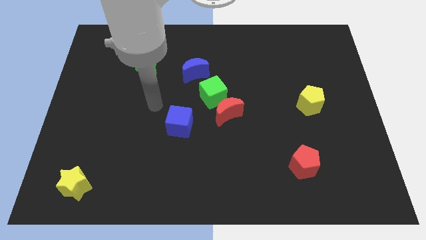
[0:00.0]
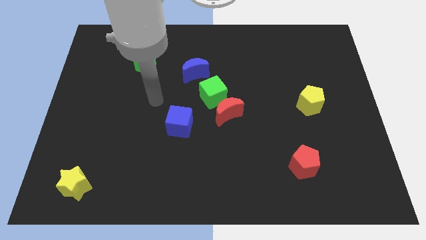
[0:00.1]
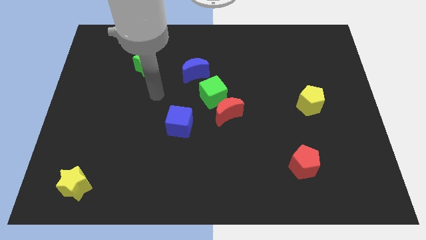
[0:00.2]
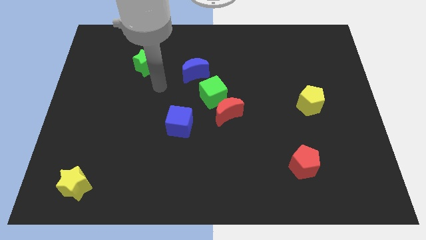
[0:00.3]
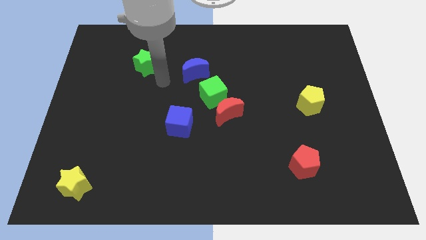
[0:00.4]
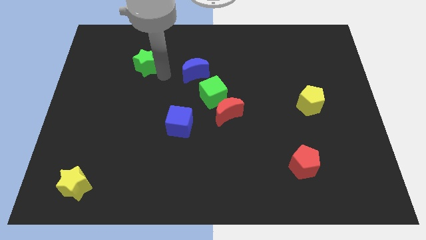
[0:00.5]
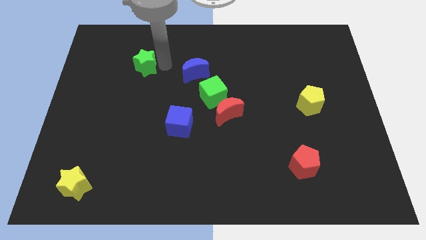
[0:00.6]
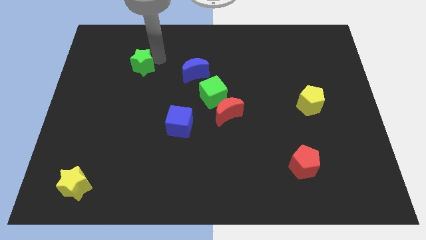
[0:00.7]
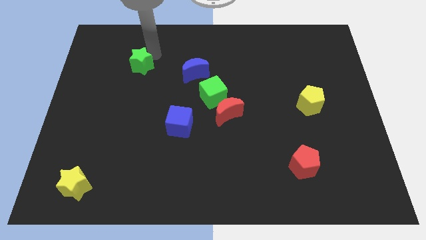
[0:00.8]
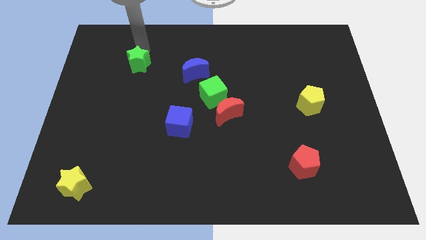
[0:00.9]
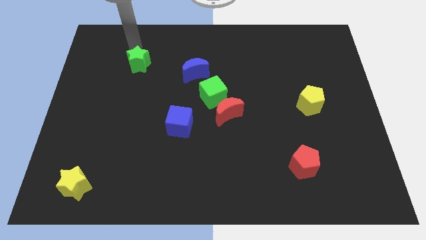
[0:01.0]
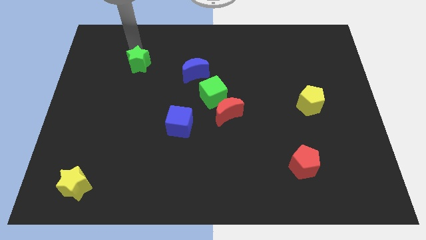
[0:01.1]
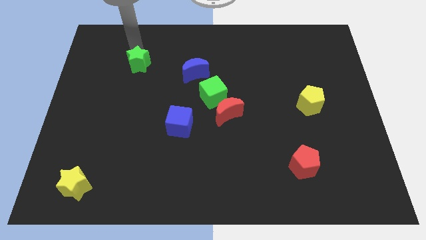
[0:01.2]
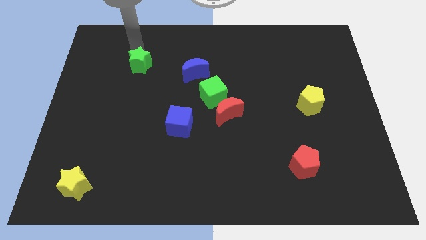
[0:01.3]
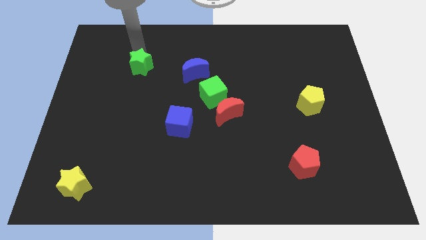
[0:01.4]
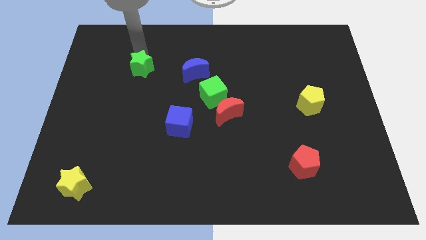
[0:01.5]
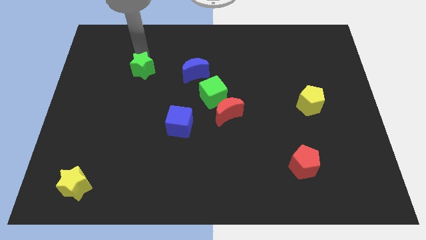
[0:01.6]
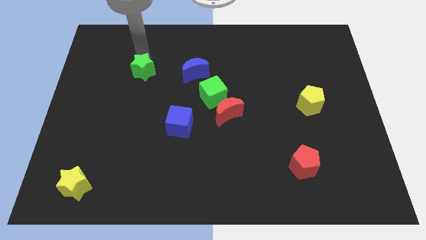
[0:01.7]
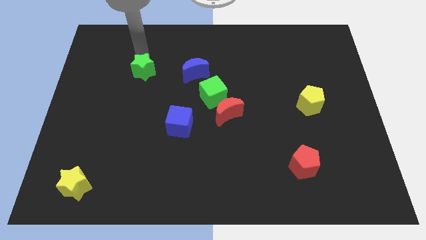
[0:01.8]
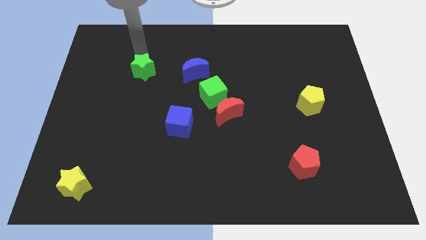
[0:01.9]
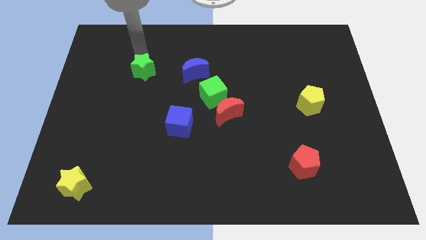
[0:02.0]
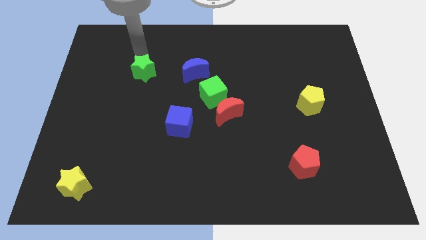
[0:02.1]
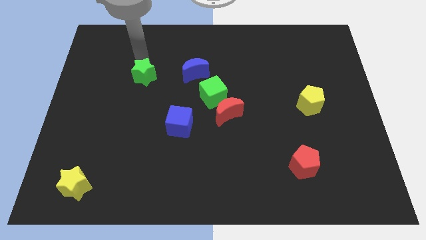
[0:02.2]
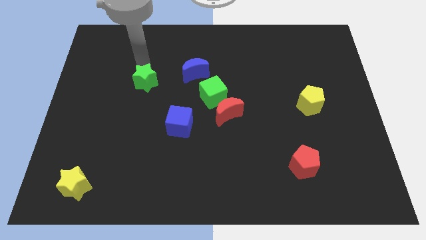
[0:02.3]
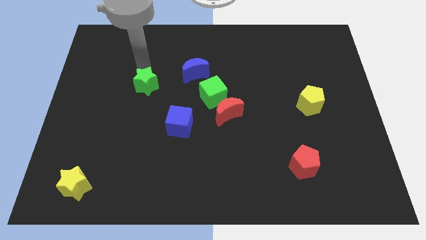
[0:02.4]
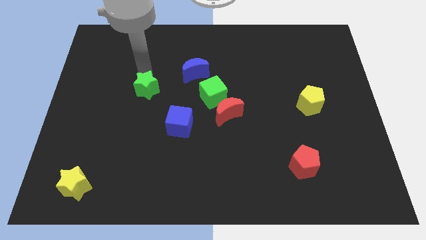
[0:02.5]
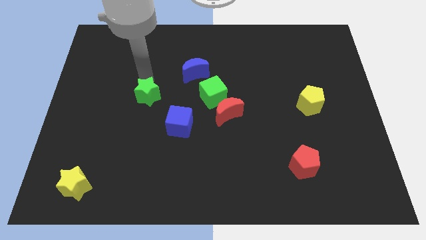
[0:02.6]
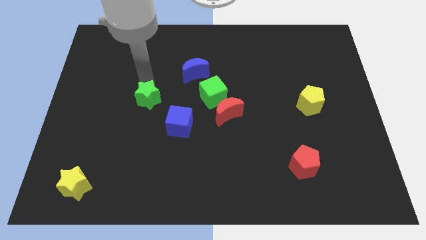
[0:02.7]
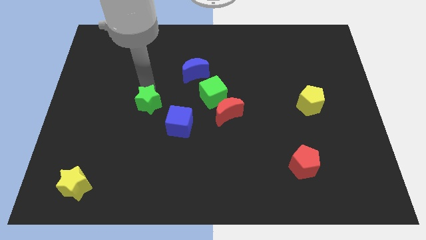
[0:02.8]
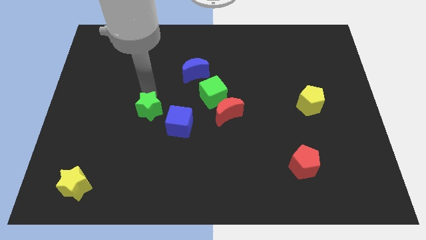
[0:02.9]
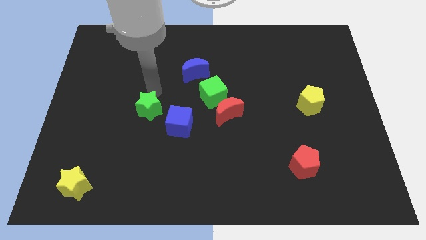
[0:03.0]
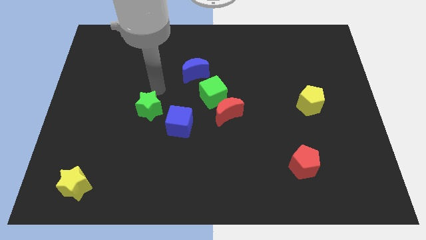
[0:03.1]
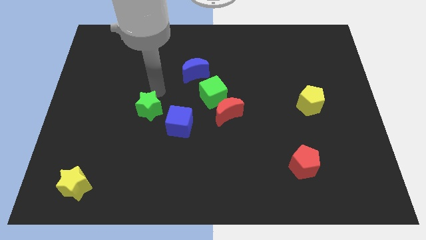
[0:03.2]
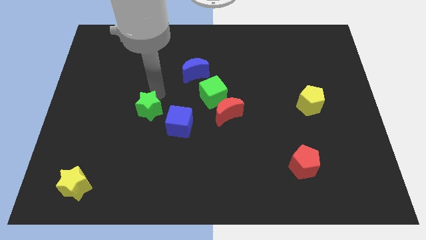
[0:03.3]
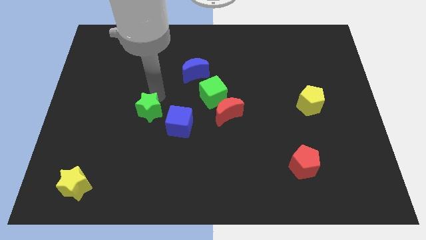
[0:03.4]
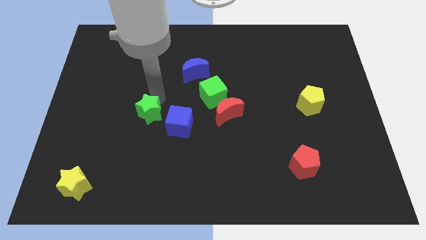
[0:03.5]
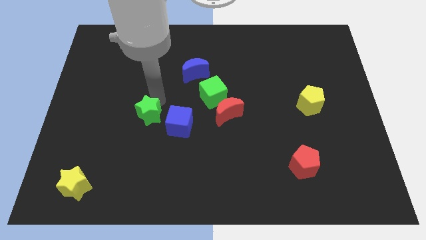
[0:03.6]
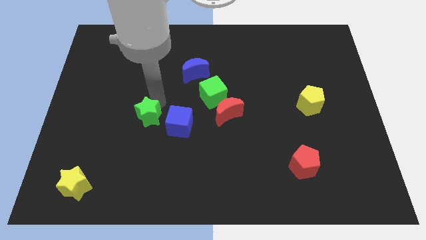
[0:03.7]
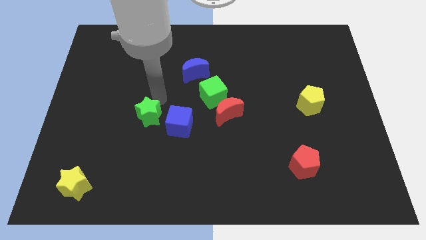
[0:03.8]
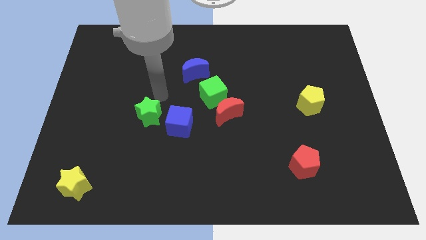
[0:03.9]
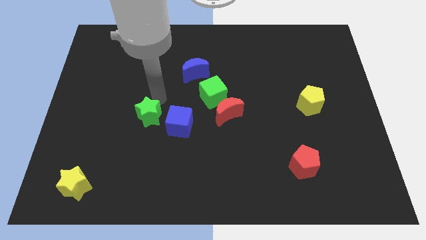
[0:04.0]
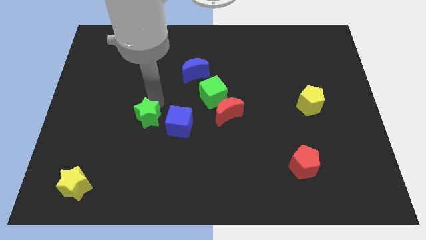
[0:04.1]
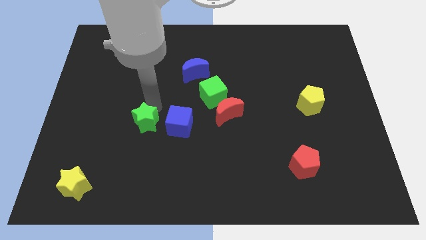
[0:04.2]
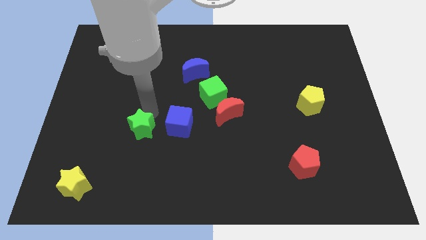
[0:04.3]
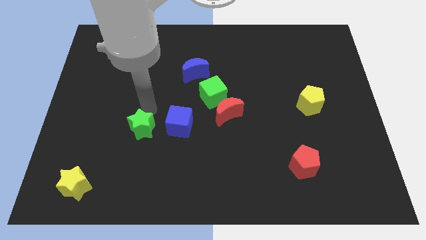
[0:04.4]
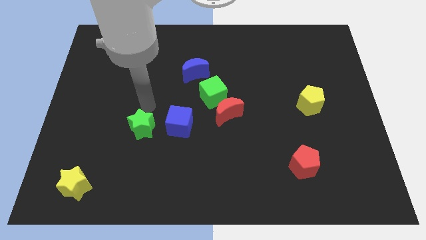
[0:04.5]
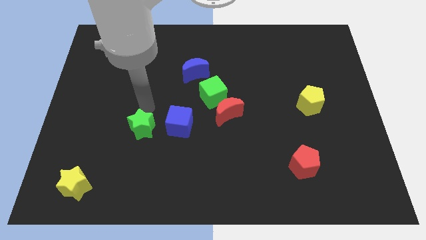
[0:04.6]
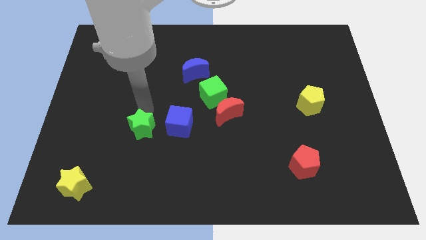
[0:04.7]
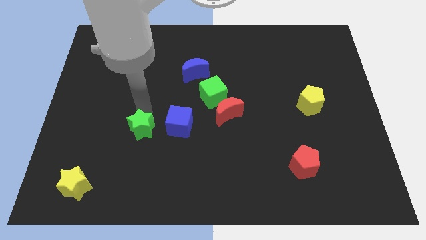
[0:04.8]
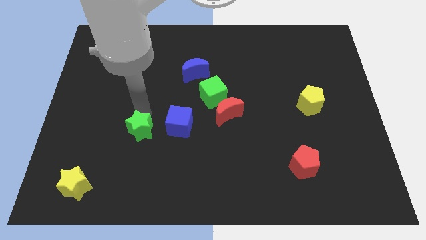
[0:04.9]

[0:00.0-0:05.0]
push the green star down

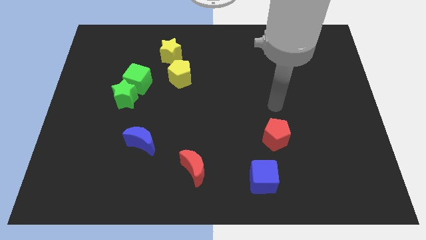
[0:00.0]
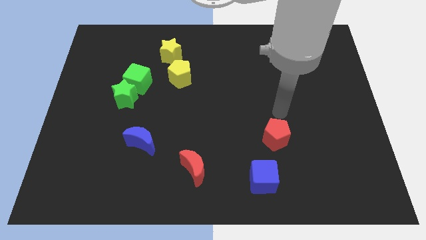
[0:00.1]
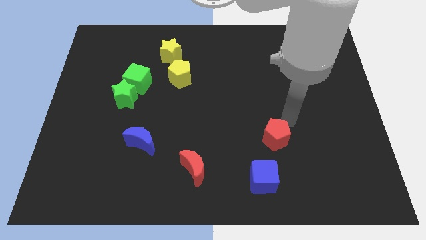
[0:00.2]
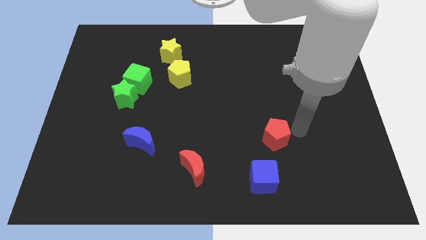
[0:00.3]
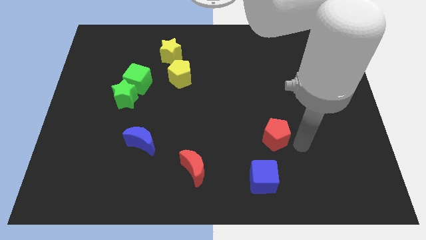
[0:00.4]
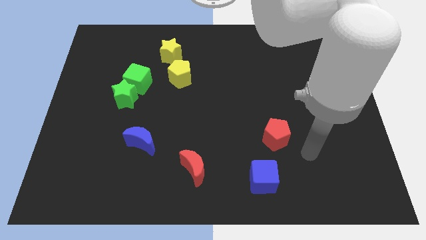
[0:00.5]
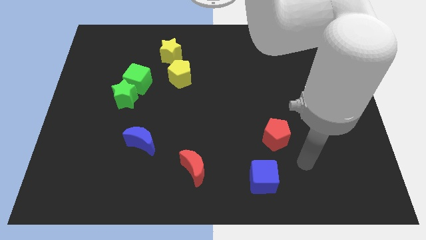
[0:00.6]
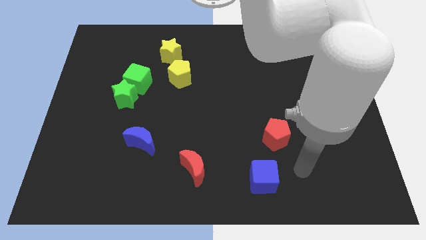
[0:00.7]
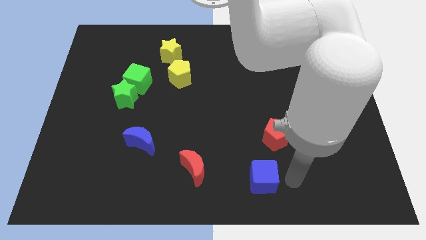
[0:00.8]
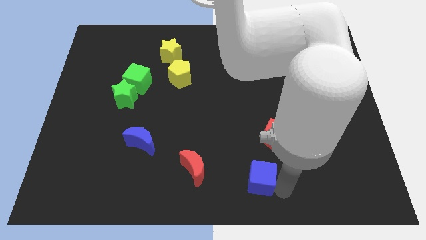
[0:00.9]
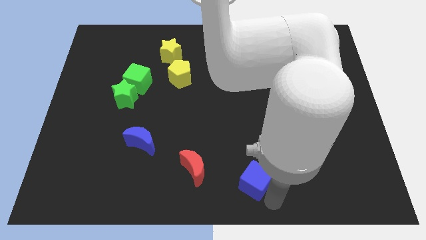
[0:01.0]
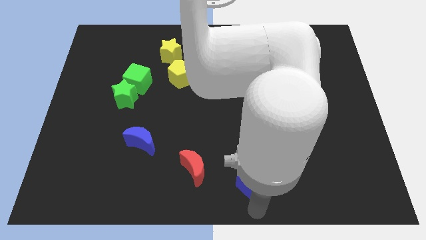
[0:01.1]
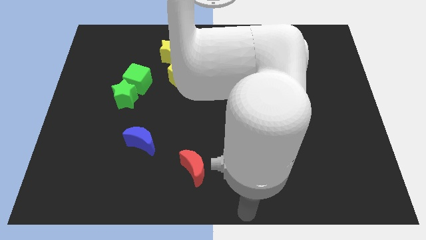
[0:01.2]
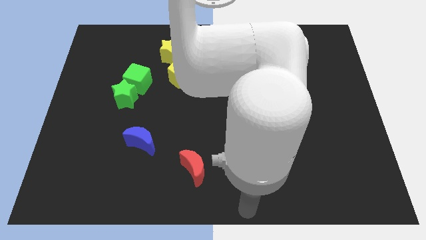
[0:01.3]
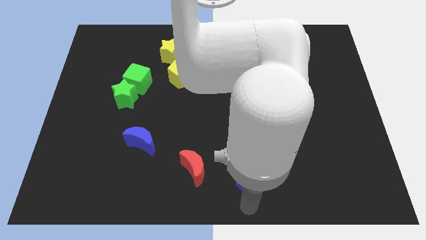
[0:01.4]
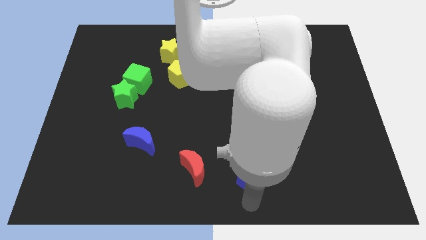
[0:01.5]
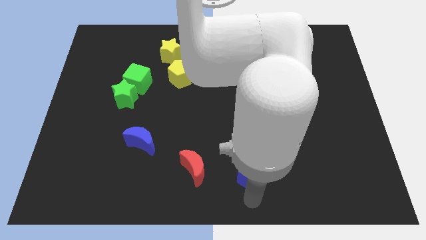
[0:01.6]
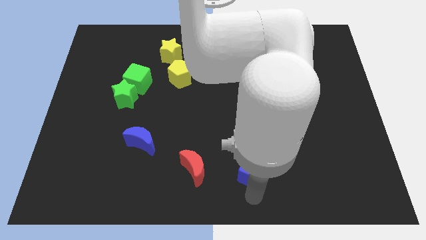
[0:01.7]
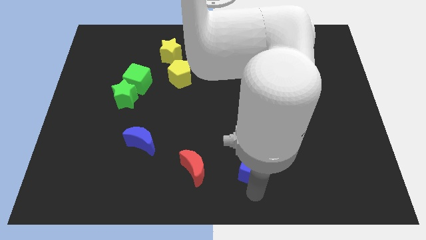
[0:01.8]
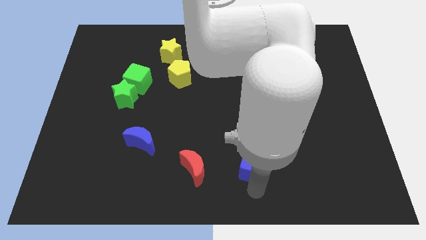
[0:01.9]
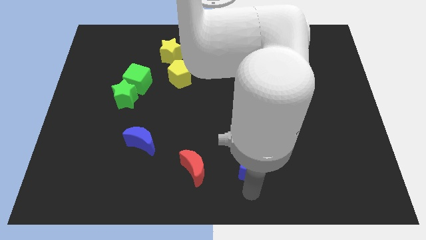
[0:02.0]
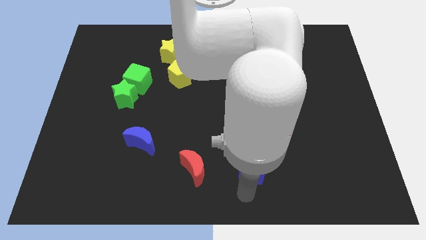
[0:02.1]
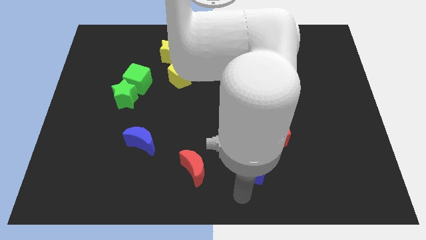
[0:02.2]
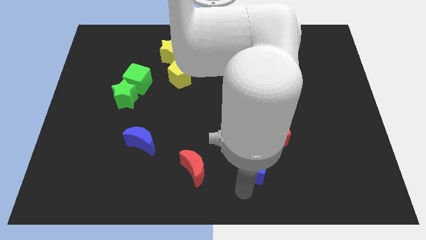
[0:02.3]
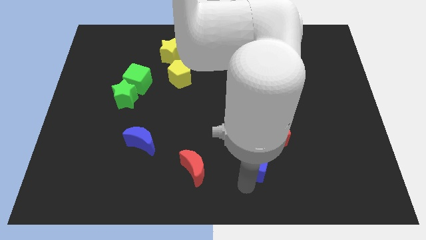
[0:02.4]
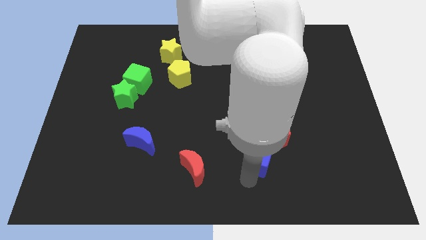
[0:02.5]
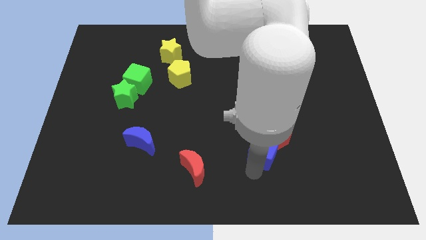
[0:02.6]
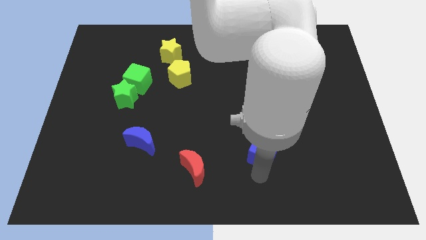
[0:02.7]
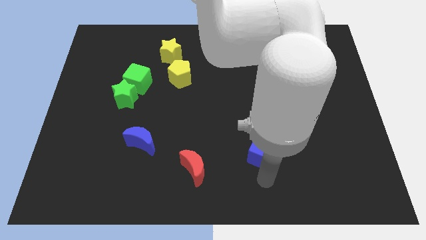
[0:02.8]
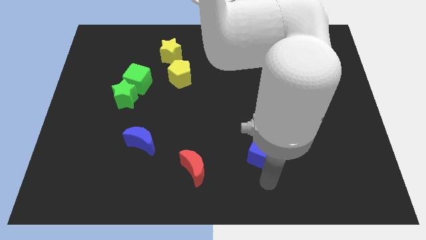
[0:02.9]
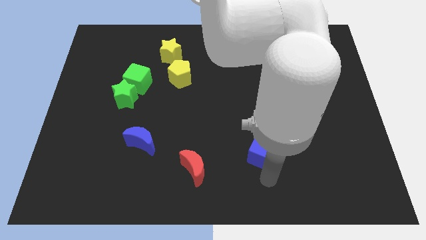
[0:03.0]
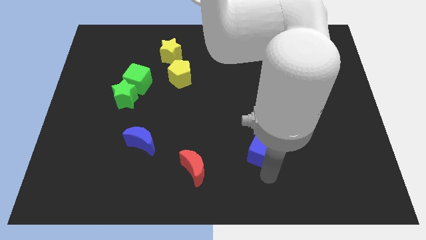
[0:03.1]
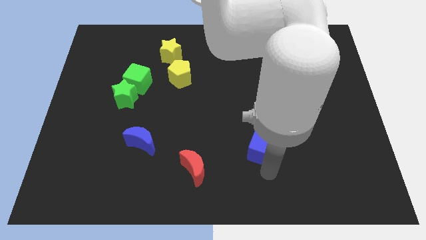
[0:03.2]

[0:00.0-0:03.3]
slightly move the blue cube up
